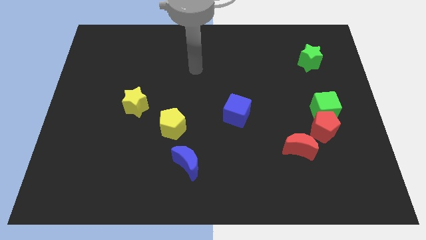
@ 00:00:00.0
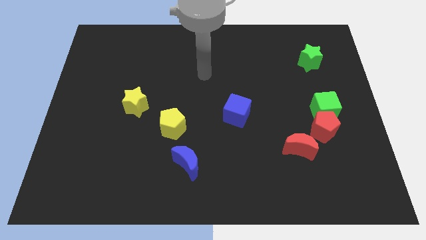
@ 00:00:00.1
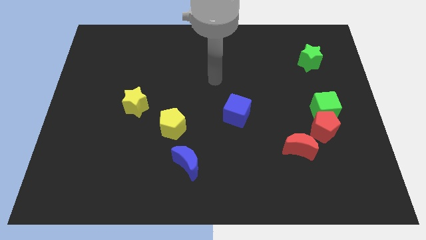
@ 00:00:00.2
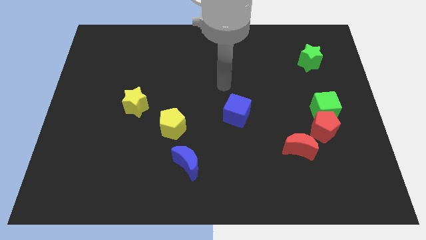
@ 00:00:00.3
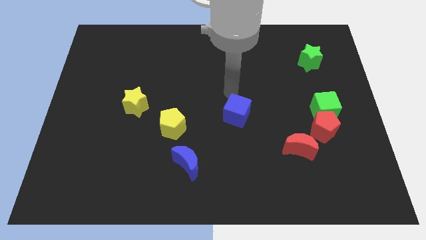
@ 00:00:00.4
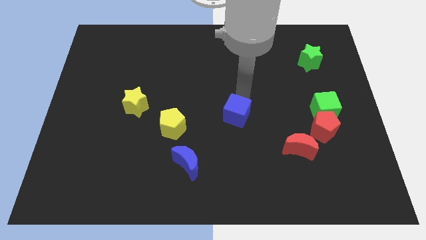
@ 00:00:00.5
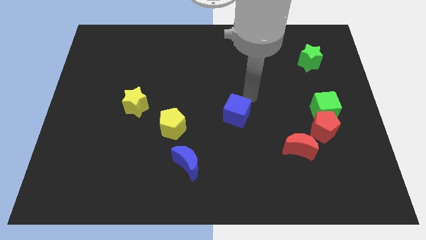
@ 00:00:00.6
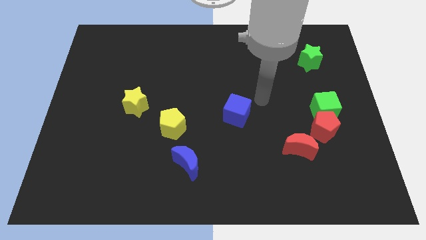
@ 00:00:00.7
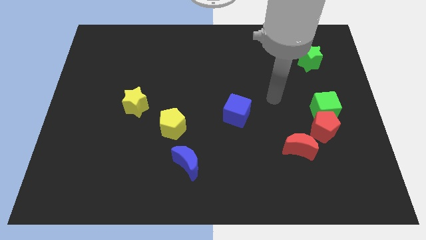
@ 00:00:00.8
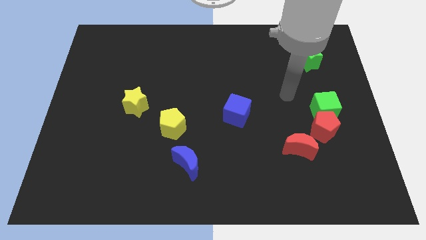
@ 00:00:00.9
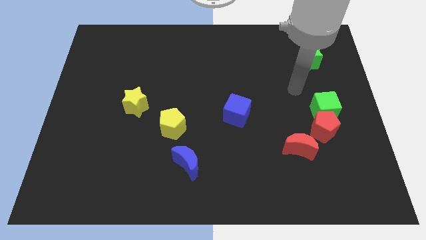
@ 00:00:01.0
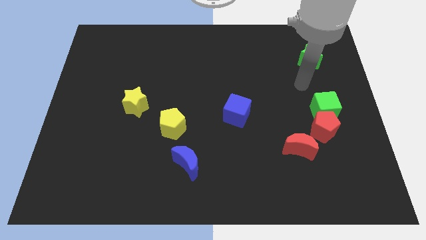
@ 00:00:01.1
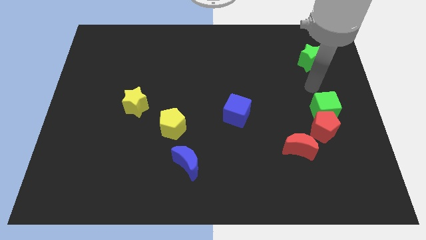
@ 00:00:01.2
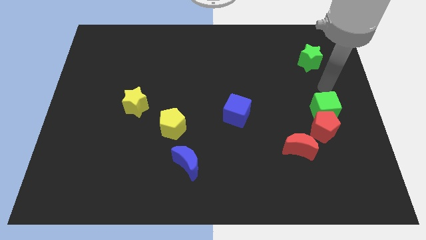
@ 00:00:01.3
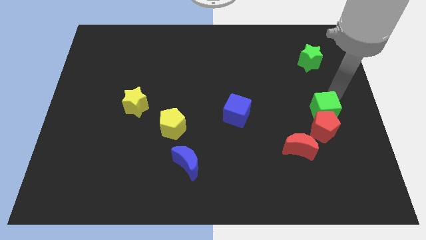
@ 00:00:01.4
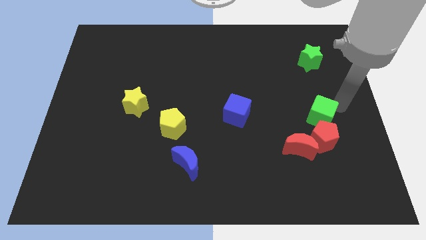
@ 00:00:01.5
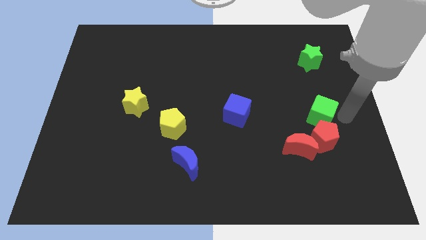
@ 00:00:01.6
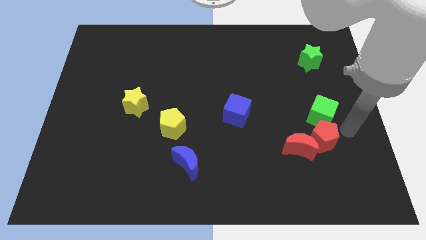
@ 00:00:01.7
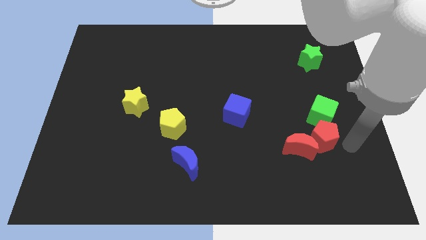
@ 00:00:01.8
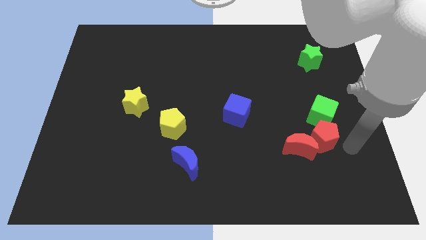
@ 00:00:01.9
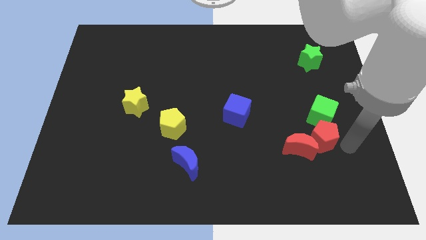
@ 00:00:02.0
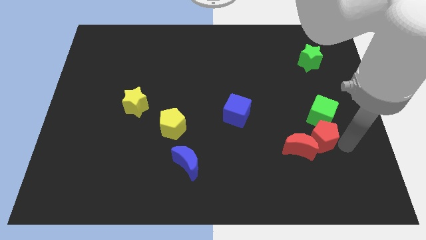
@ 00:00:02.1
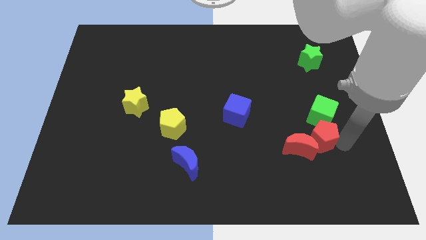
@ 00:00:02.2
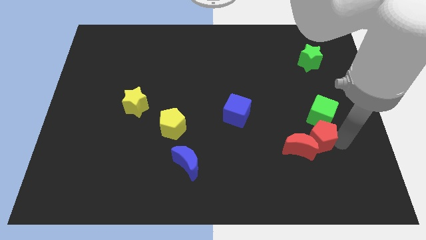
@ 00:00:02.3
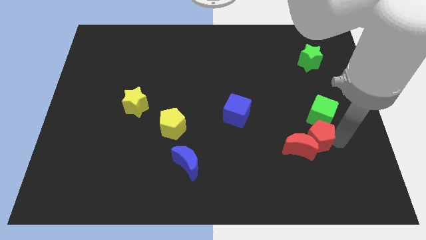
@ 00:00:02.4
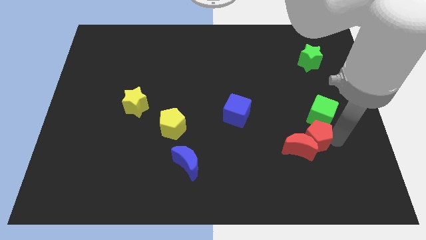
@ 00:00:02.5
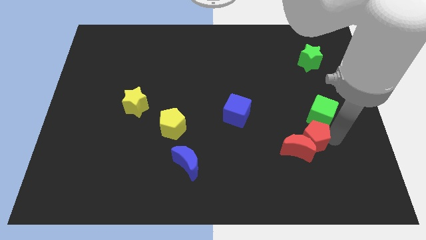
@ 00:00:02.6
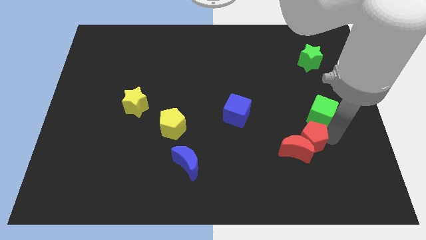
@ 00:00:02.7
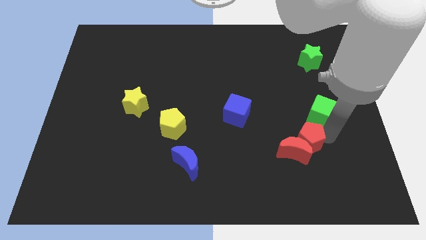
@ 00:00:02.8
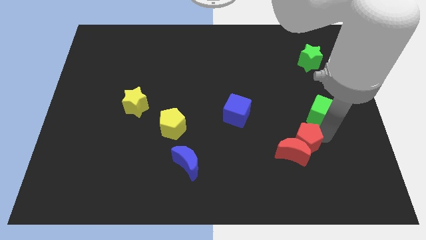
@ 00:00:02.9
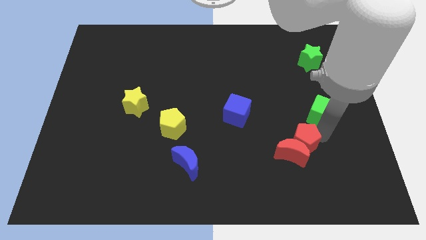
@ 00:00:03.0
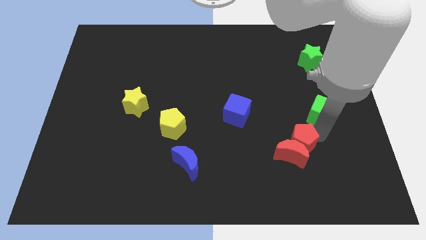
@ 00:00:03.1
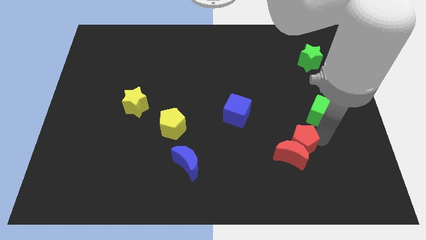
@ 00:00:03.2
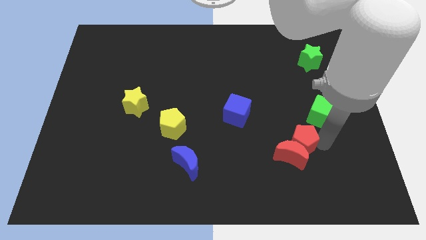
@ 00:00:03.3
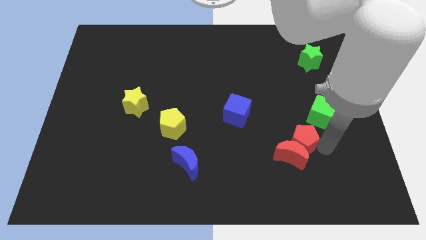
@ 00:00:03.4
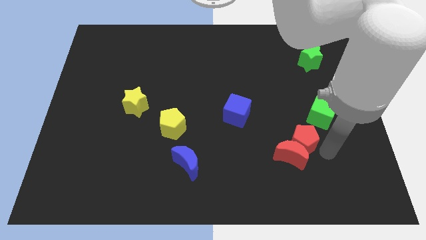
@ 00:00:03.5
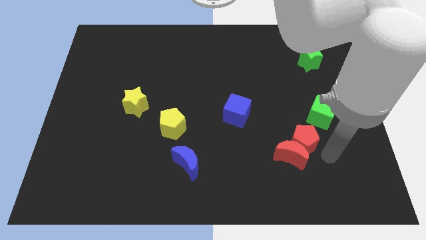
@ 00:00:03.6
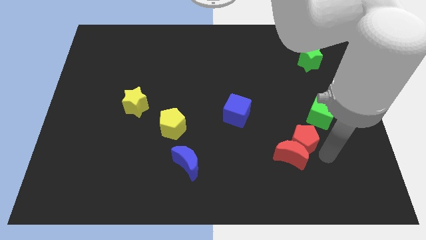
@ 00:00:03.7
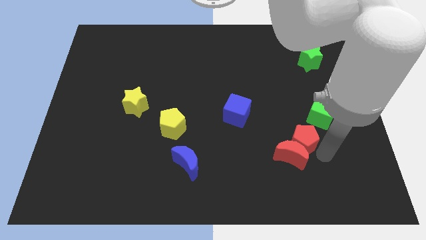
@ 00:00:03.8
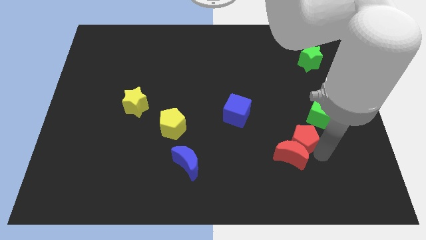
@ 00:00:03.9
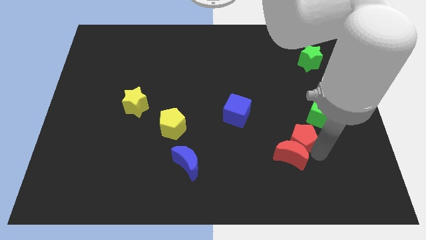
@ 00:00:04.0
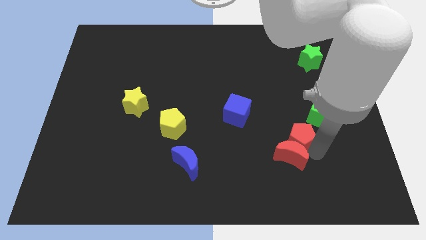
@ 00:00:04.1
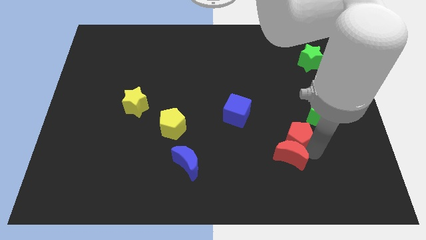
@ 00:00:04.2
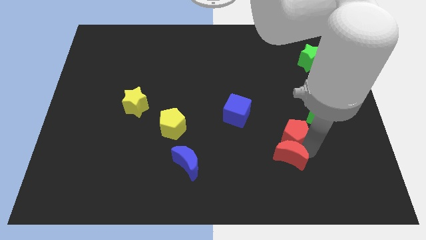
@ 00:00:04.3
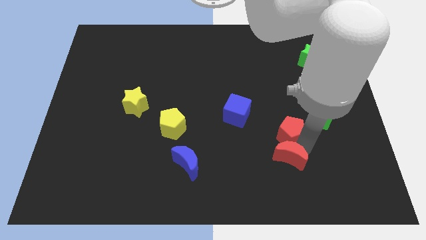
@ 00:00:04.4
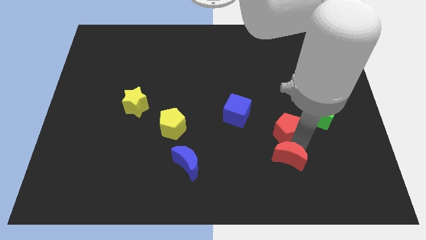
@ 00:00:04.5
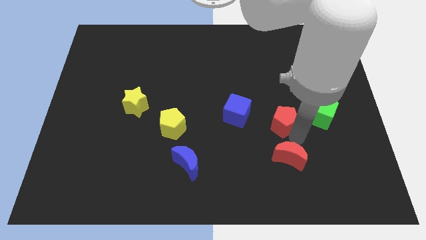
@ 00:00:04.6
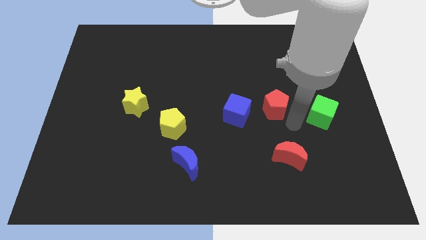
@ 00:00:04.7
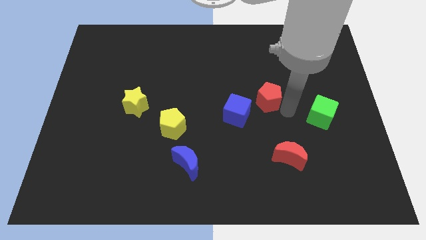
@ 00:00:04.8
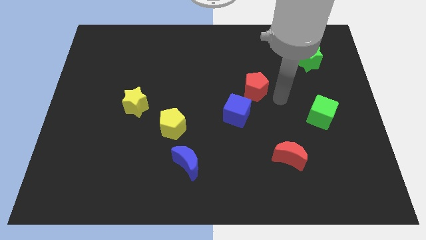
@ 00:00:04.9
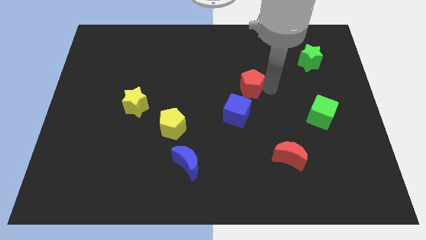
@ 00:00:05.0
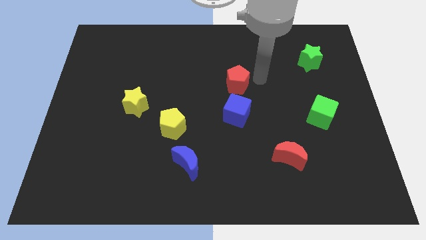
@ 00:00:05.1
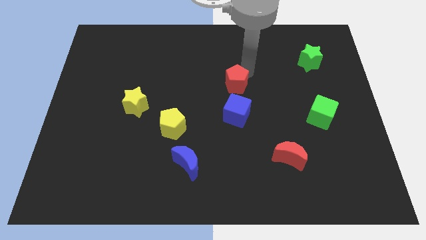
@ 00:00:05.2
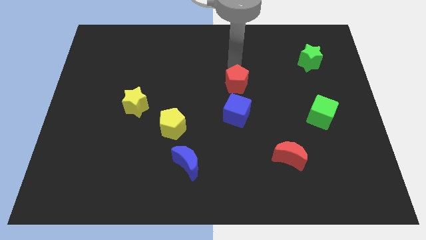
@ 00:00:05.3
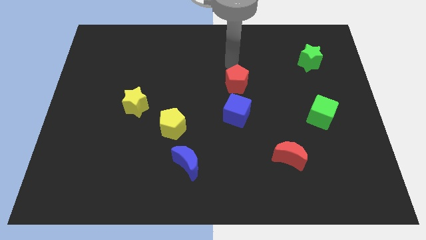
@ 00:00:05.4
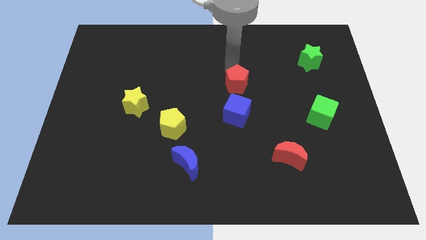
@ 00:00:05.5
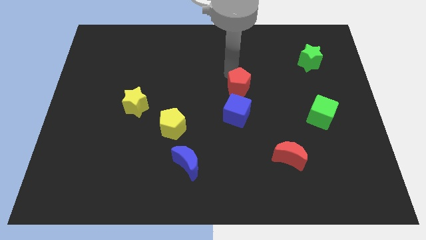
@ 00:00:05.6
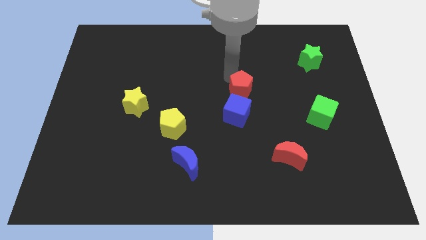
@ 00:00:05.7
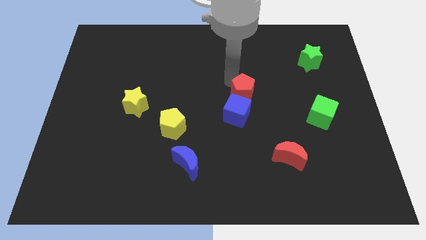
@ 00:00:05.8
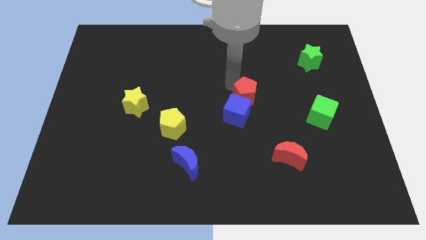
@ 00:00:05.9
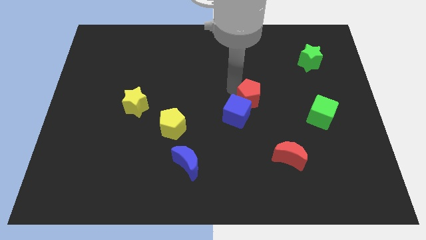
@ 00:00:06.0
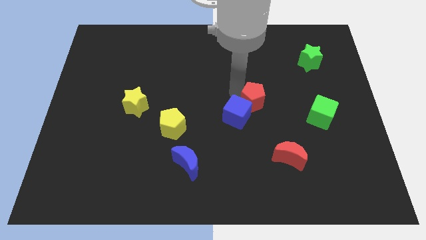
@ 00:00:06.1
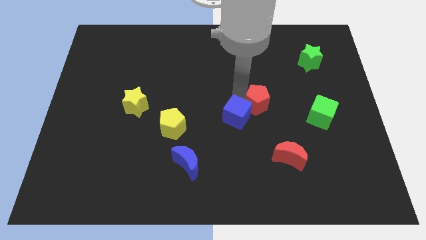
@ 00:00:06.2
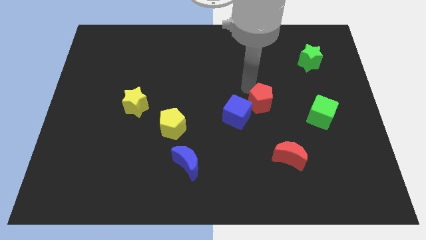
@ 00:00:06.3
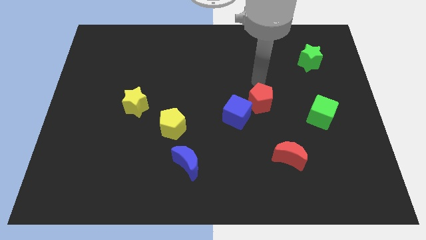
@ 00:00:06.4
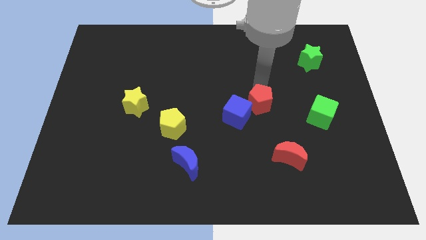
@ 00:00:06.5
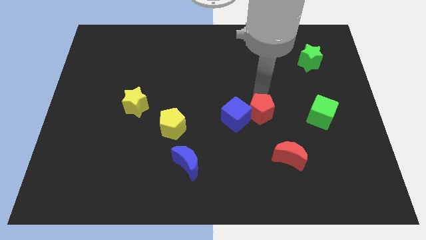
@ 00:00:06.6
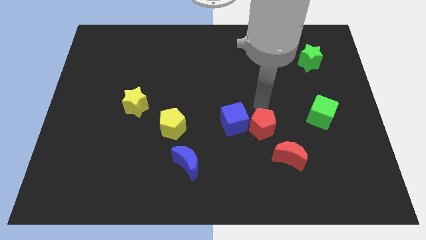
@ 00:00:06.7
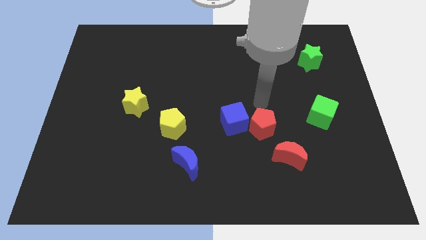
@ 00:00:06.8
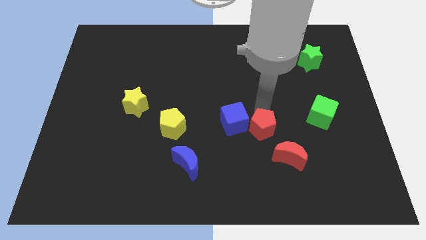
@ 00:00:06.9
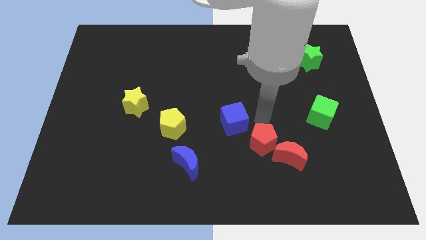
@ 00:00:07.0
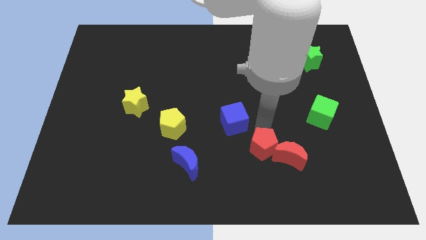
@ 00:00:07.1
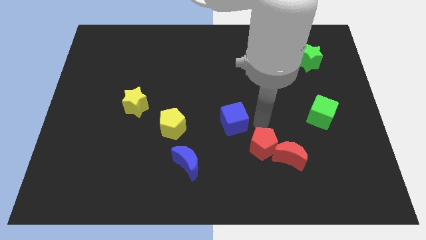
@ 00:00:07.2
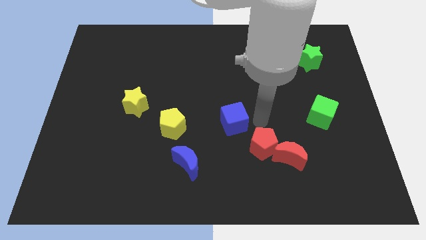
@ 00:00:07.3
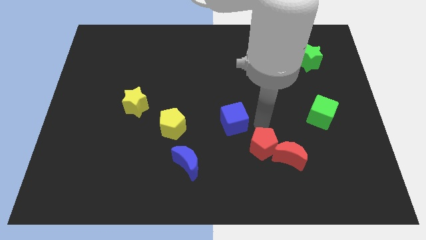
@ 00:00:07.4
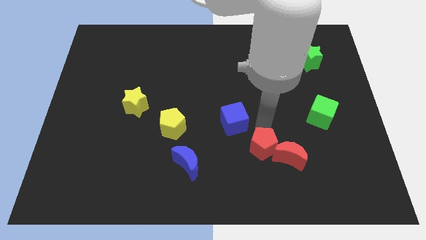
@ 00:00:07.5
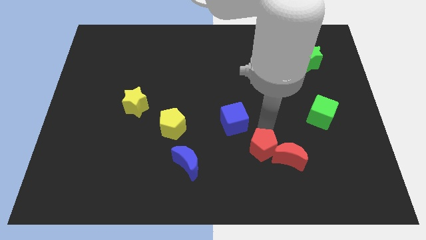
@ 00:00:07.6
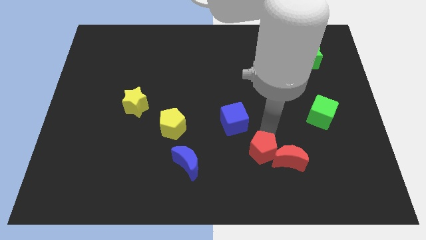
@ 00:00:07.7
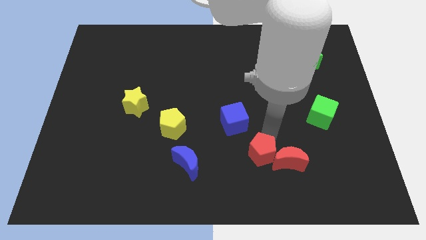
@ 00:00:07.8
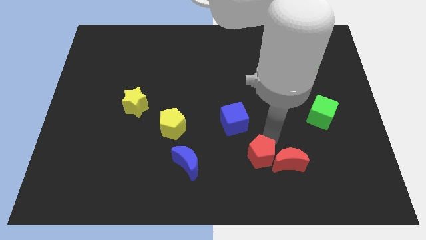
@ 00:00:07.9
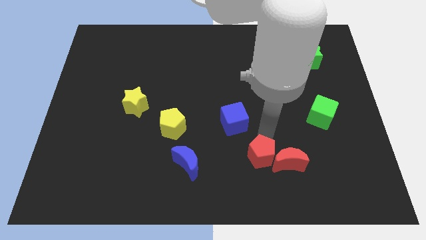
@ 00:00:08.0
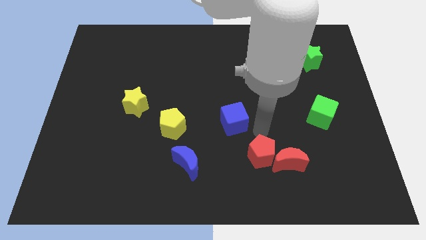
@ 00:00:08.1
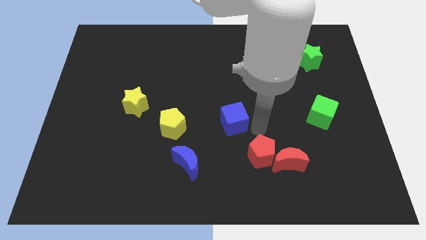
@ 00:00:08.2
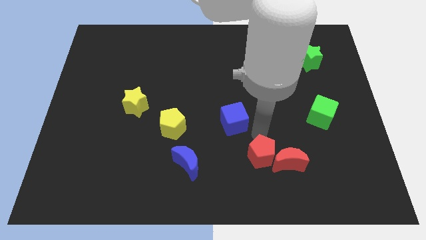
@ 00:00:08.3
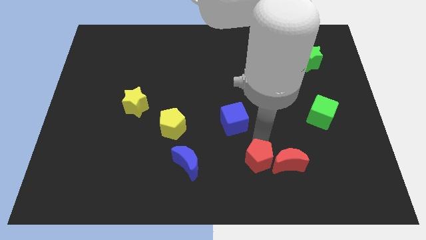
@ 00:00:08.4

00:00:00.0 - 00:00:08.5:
move the red pentagon to the bottom left side of the red moon
